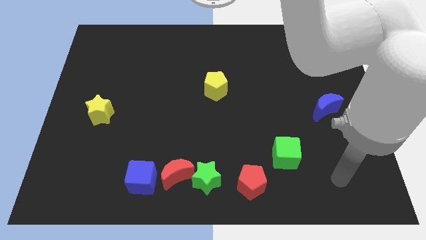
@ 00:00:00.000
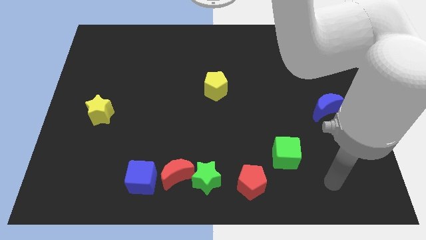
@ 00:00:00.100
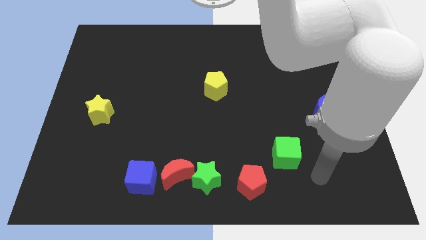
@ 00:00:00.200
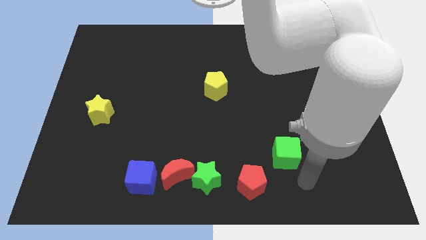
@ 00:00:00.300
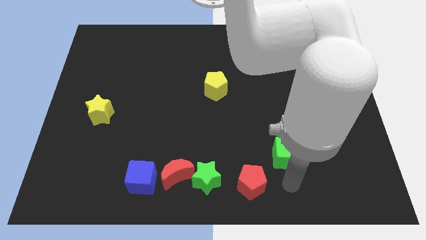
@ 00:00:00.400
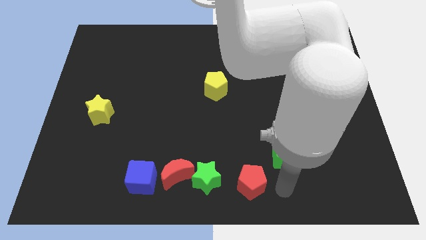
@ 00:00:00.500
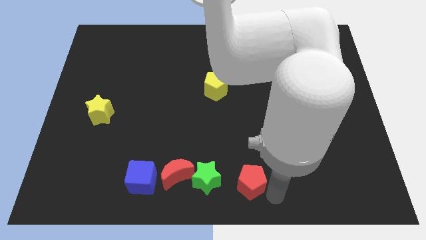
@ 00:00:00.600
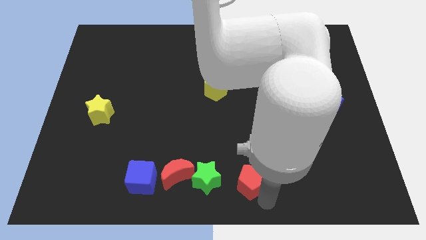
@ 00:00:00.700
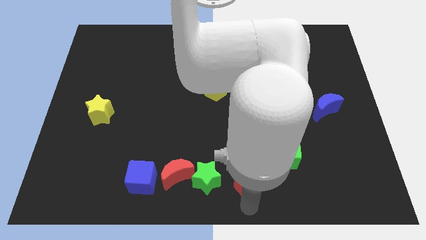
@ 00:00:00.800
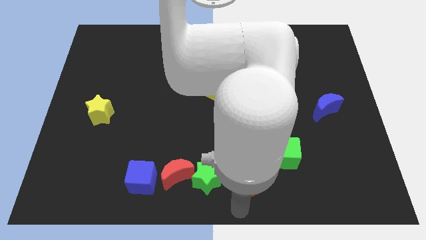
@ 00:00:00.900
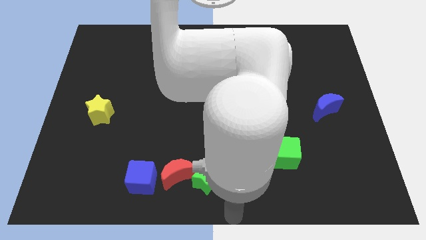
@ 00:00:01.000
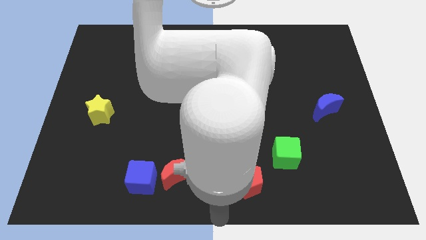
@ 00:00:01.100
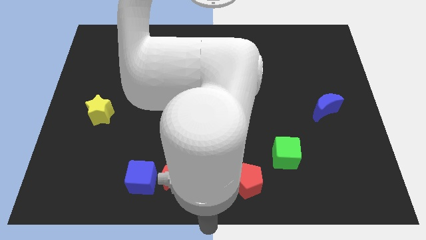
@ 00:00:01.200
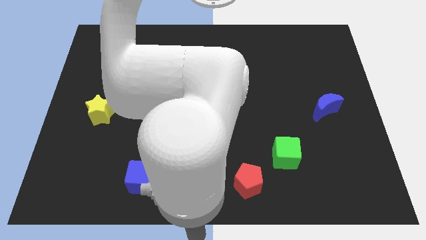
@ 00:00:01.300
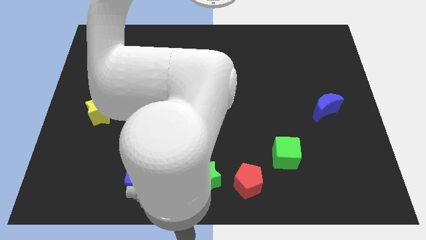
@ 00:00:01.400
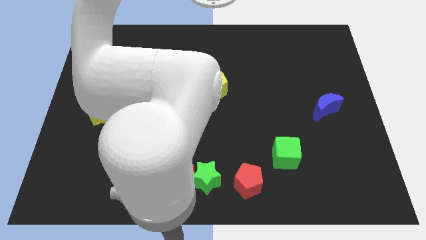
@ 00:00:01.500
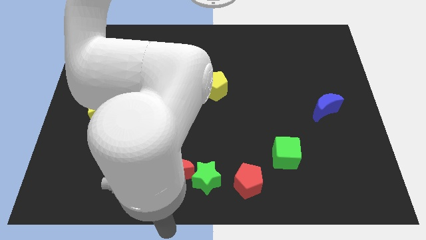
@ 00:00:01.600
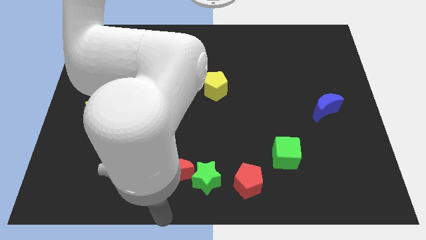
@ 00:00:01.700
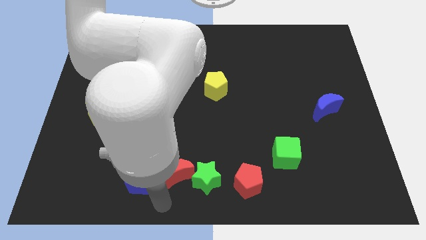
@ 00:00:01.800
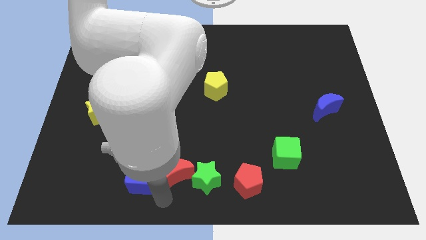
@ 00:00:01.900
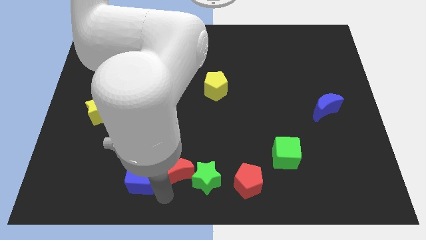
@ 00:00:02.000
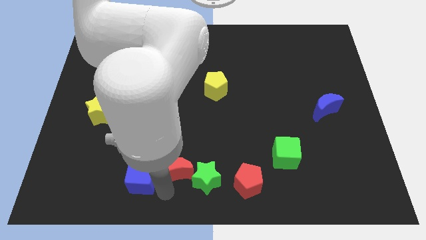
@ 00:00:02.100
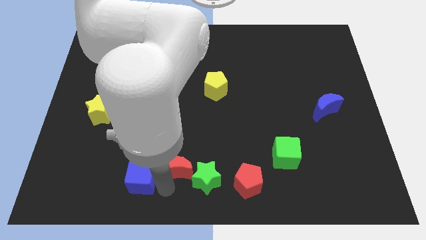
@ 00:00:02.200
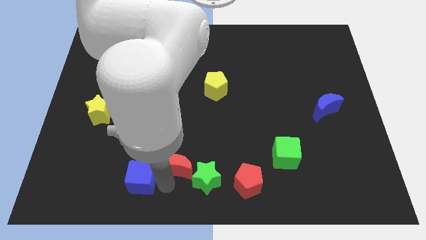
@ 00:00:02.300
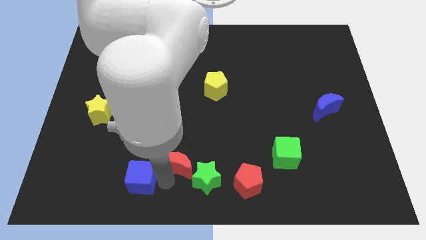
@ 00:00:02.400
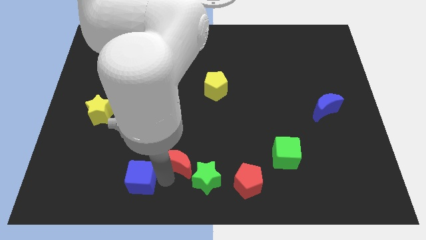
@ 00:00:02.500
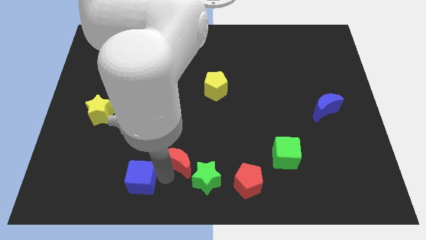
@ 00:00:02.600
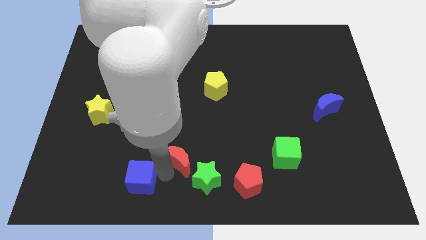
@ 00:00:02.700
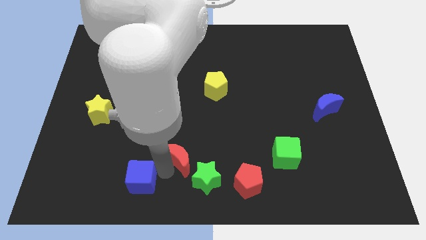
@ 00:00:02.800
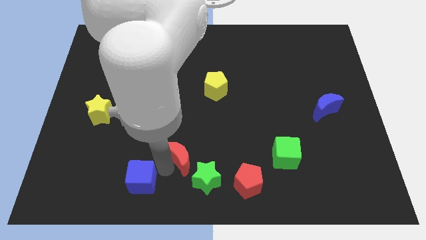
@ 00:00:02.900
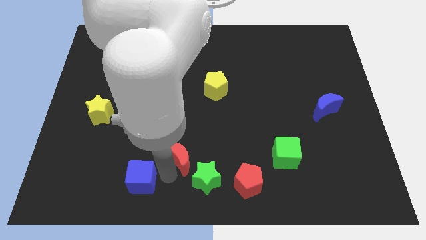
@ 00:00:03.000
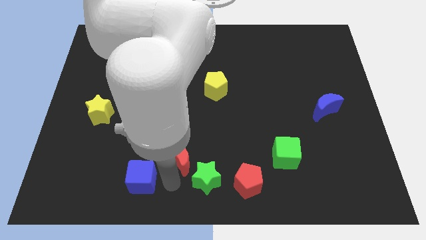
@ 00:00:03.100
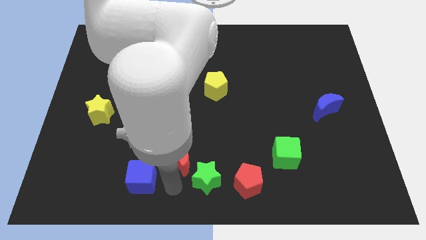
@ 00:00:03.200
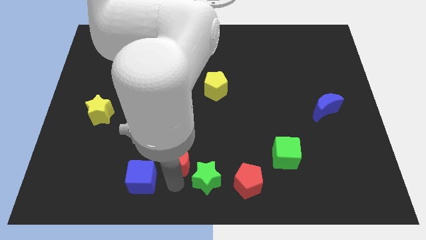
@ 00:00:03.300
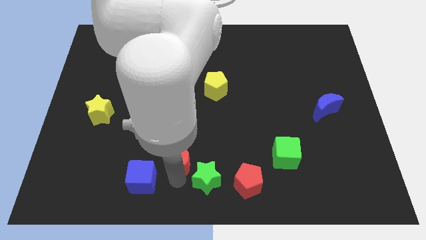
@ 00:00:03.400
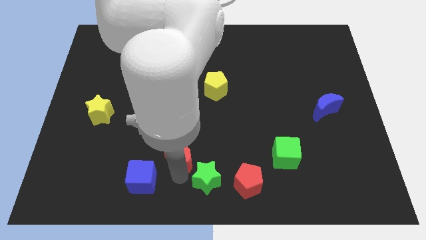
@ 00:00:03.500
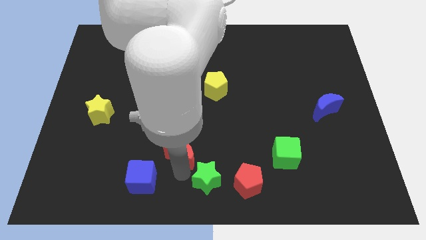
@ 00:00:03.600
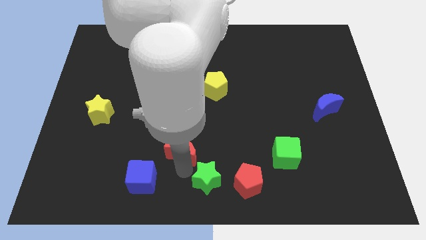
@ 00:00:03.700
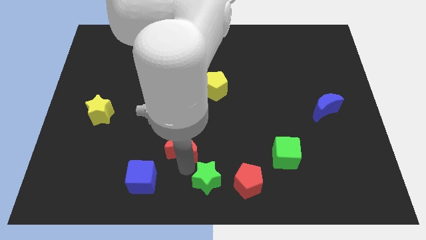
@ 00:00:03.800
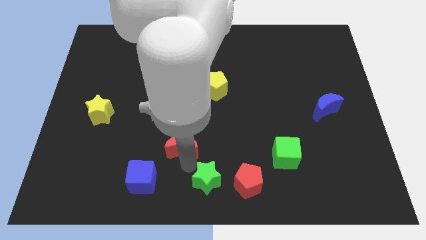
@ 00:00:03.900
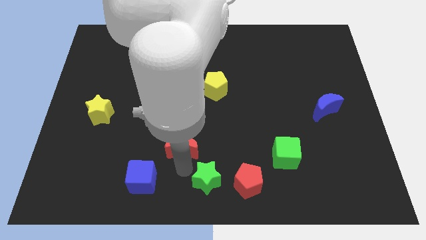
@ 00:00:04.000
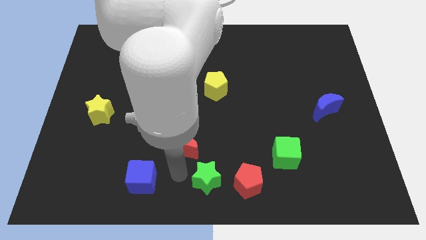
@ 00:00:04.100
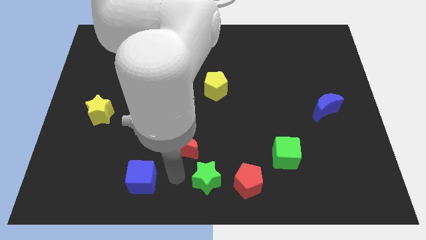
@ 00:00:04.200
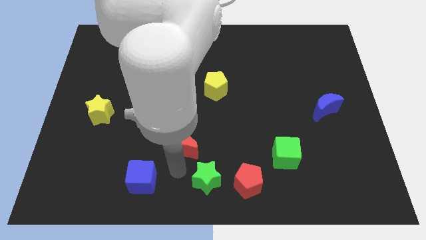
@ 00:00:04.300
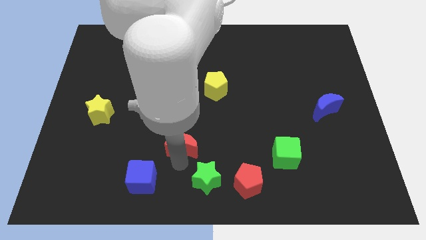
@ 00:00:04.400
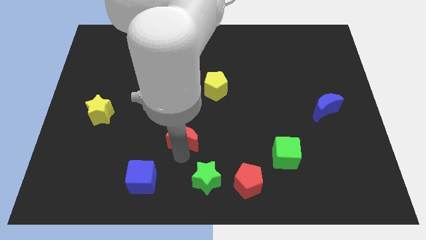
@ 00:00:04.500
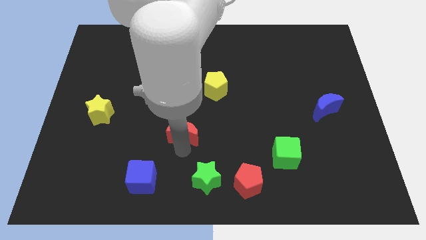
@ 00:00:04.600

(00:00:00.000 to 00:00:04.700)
pull the red moon apart from the green star and blue cube

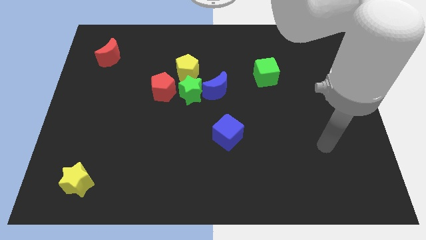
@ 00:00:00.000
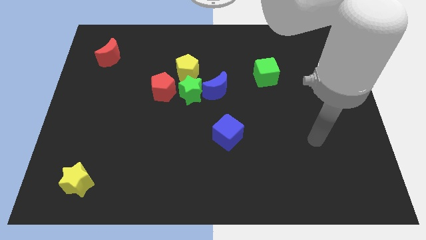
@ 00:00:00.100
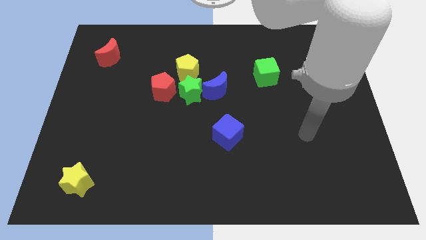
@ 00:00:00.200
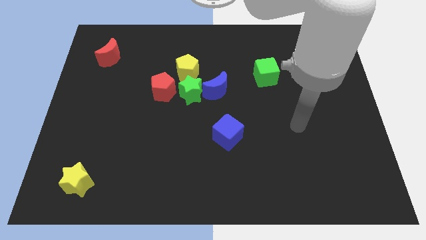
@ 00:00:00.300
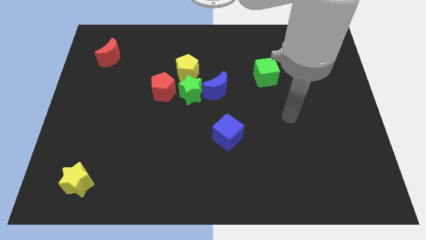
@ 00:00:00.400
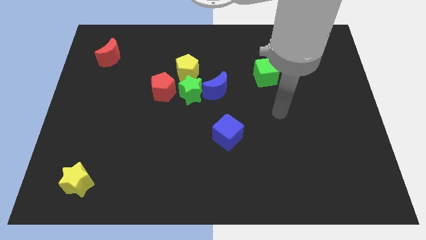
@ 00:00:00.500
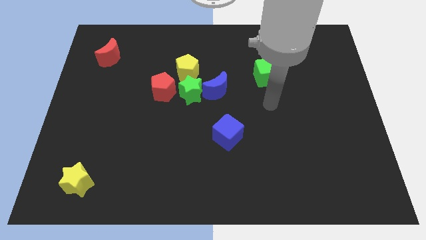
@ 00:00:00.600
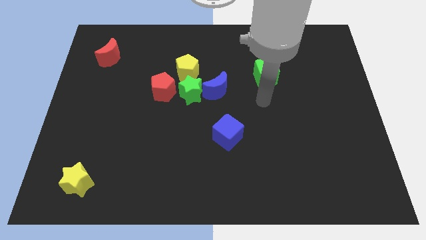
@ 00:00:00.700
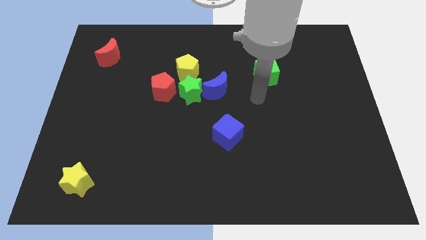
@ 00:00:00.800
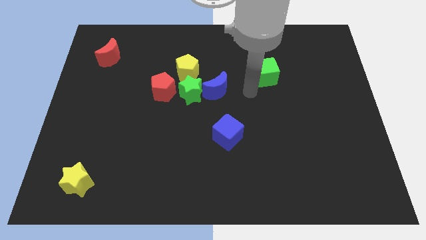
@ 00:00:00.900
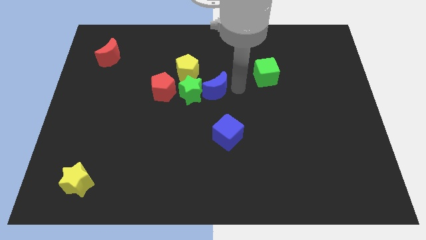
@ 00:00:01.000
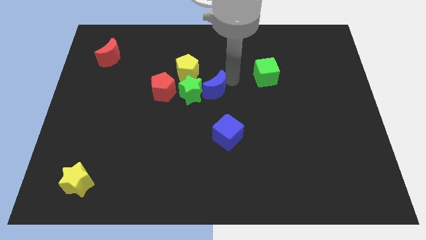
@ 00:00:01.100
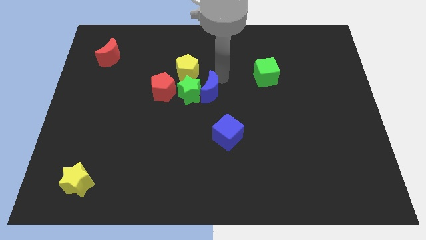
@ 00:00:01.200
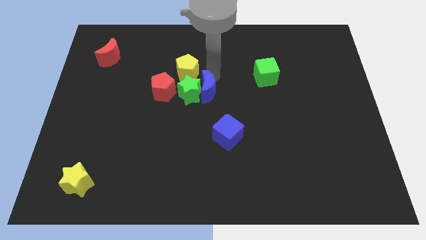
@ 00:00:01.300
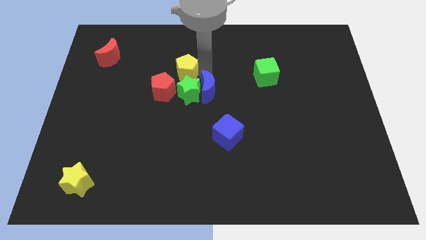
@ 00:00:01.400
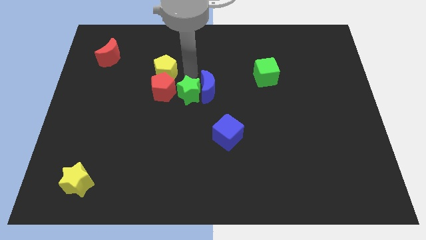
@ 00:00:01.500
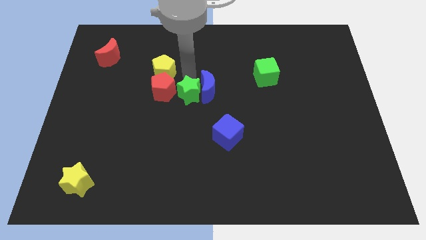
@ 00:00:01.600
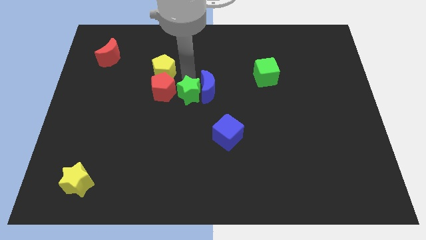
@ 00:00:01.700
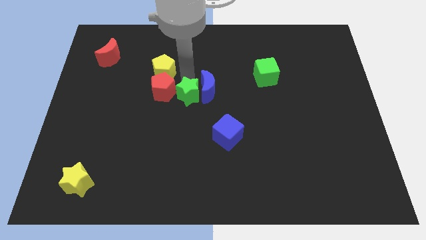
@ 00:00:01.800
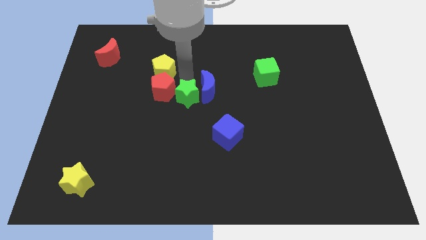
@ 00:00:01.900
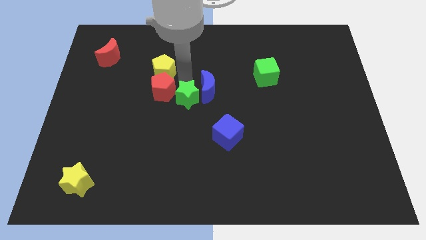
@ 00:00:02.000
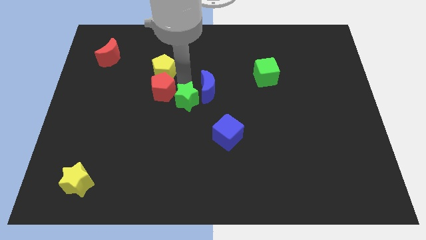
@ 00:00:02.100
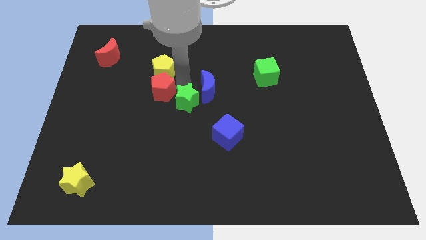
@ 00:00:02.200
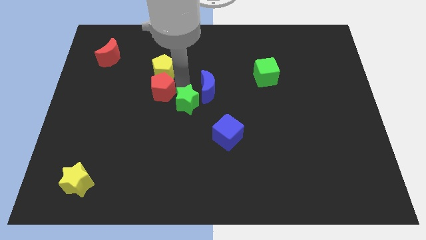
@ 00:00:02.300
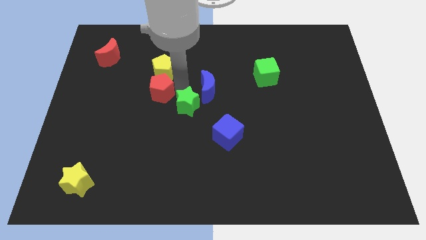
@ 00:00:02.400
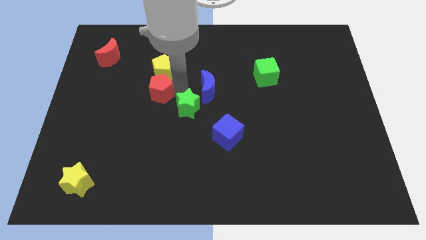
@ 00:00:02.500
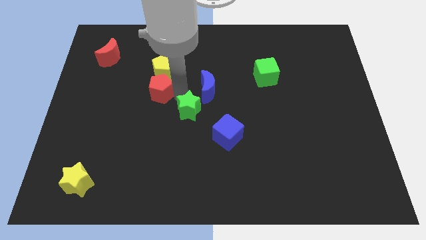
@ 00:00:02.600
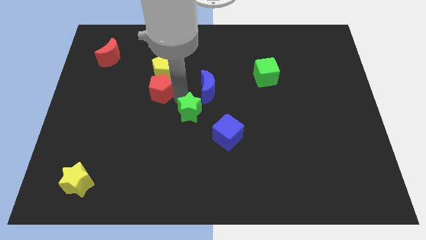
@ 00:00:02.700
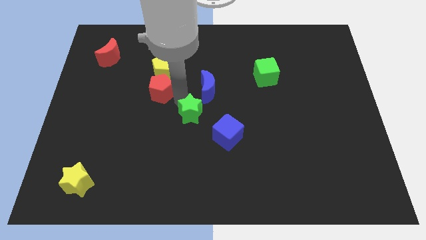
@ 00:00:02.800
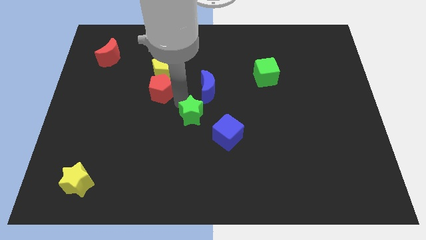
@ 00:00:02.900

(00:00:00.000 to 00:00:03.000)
pull the green star apart from the clump

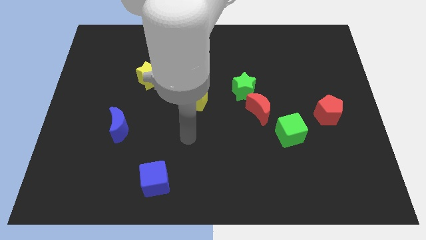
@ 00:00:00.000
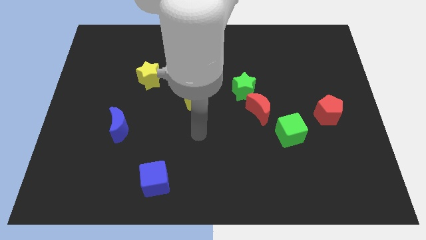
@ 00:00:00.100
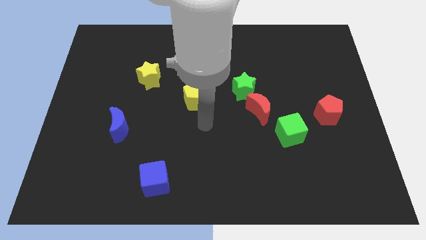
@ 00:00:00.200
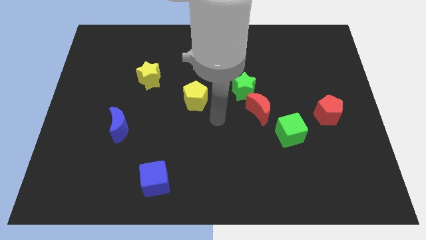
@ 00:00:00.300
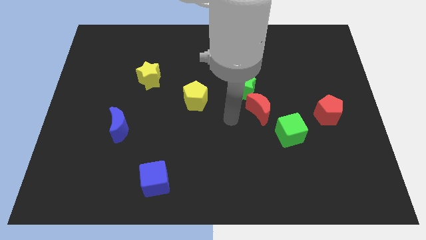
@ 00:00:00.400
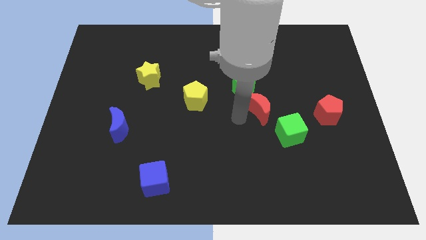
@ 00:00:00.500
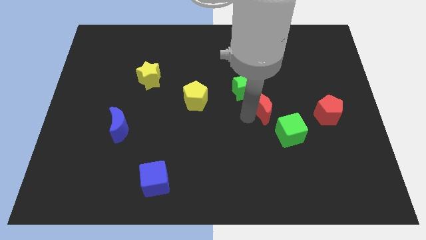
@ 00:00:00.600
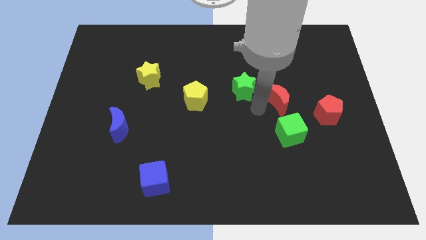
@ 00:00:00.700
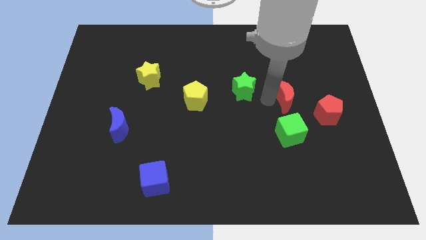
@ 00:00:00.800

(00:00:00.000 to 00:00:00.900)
move the green star away from the red moon

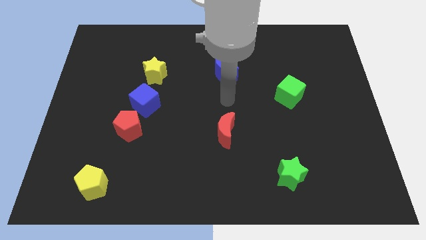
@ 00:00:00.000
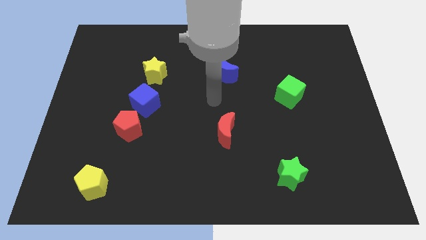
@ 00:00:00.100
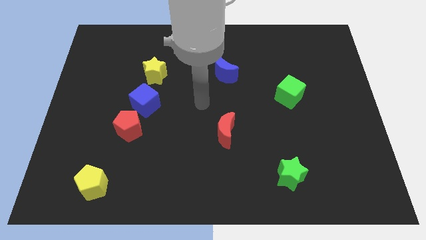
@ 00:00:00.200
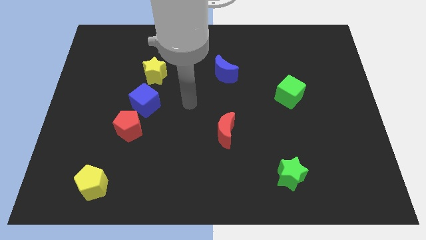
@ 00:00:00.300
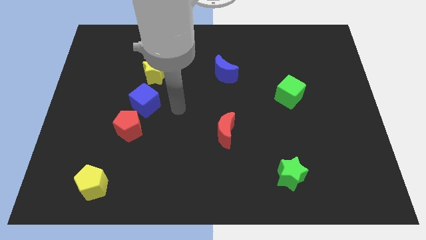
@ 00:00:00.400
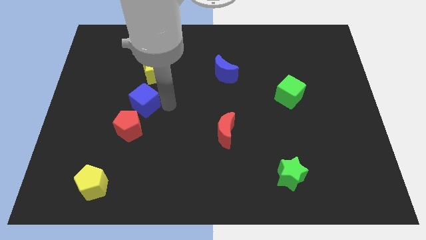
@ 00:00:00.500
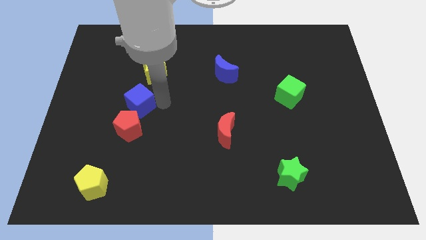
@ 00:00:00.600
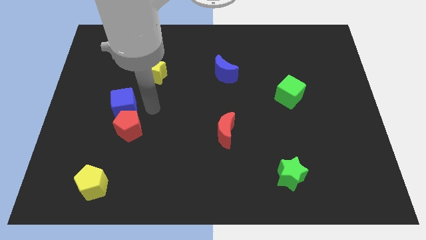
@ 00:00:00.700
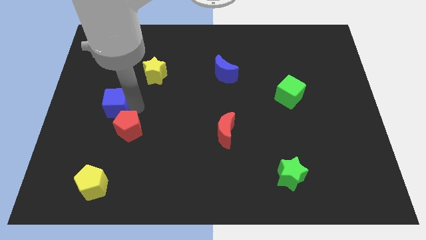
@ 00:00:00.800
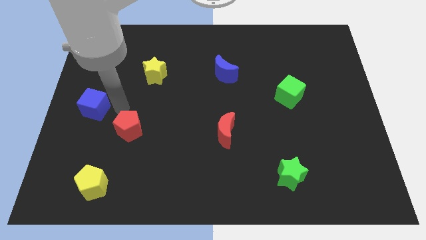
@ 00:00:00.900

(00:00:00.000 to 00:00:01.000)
move the red pentagon away from the blue cube
